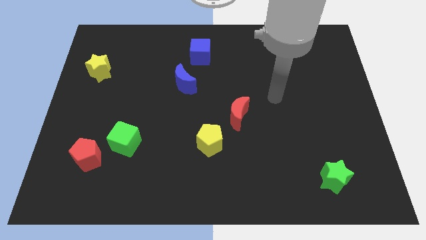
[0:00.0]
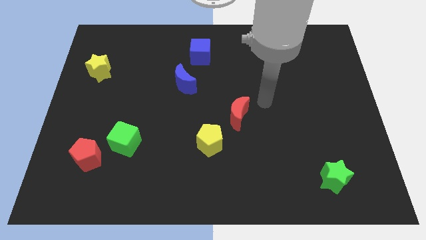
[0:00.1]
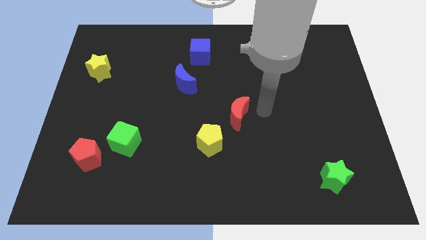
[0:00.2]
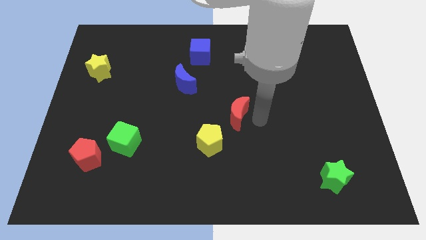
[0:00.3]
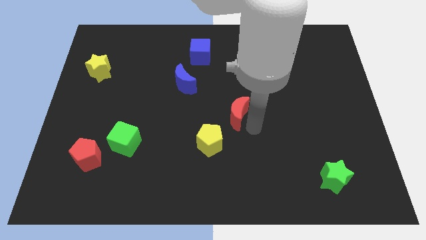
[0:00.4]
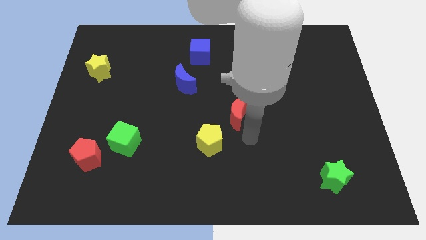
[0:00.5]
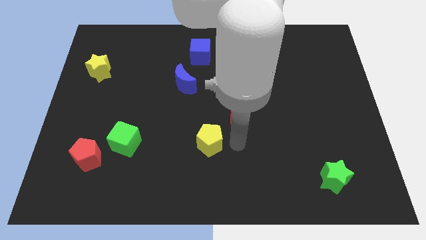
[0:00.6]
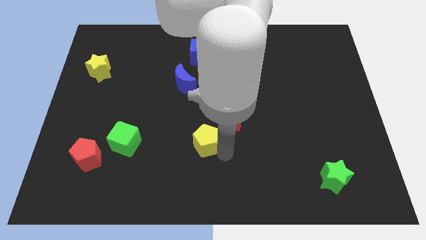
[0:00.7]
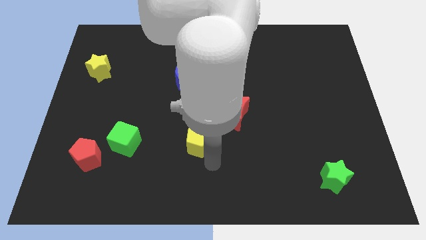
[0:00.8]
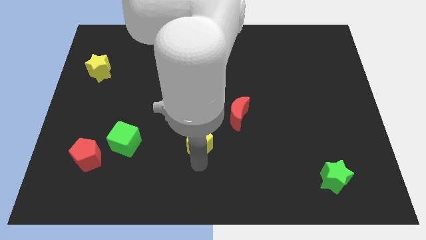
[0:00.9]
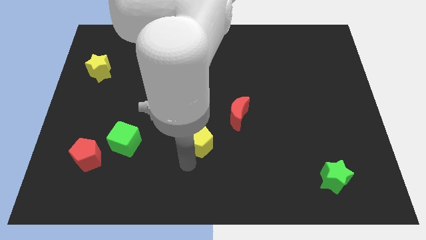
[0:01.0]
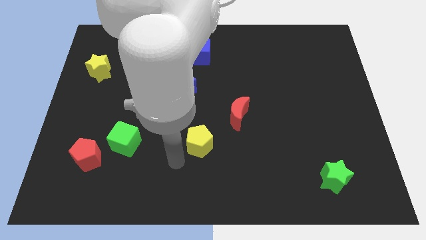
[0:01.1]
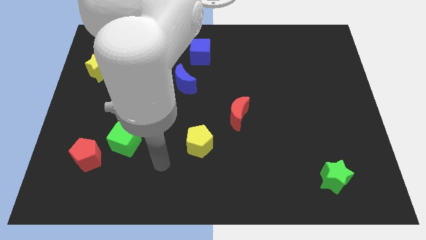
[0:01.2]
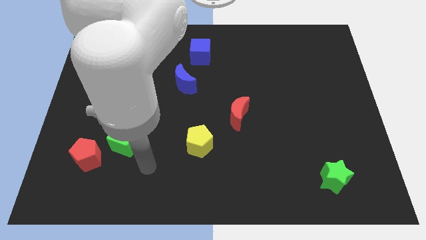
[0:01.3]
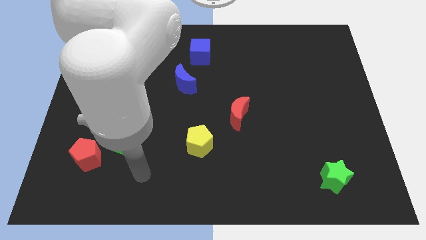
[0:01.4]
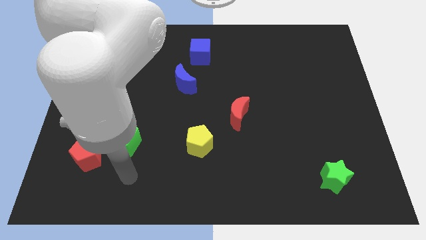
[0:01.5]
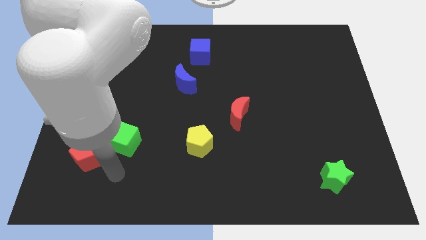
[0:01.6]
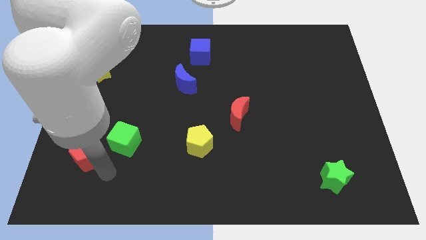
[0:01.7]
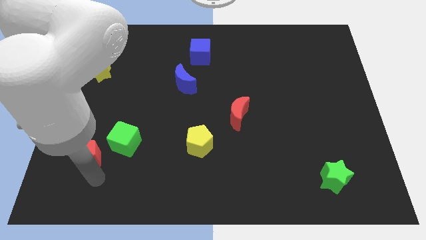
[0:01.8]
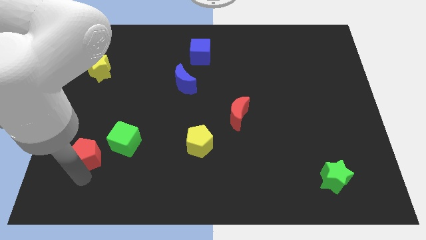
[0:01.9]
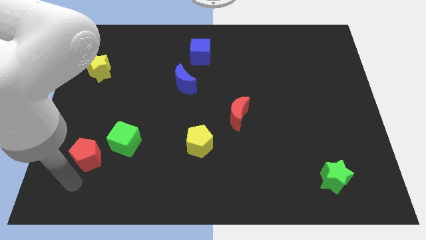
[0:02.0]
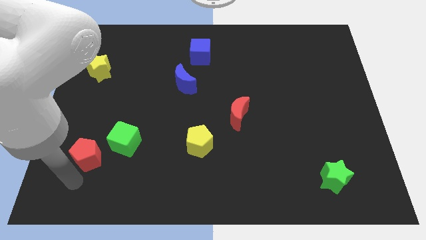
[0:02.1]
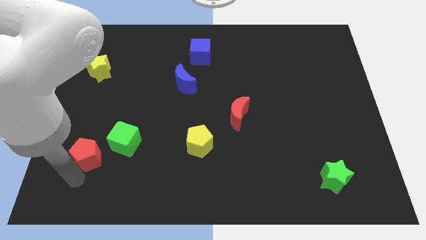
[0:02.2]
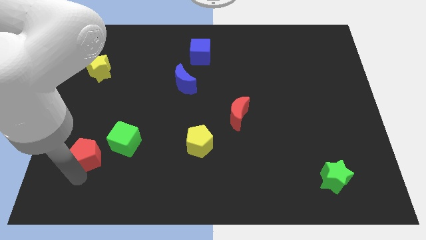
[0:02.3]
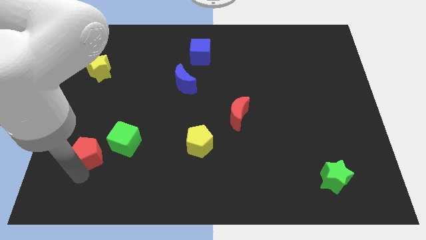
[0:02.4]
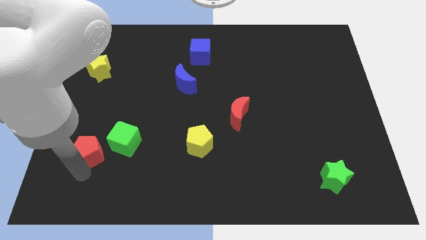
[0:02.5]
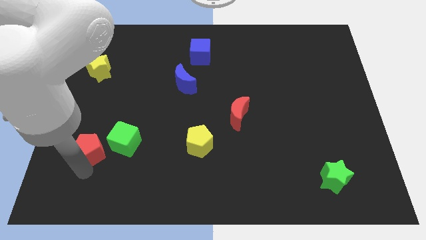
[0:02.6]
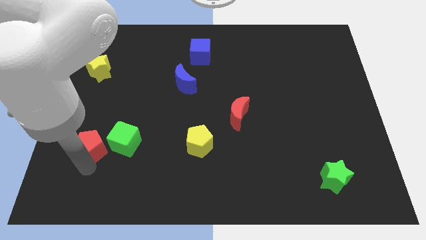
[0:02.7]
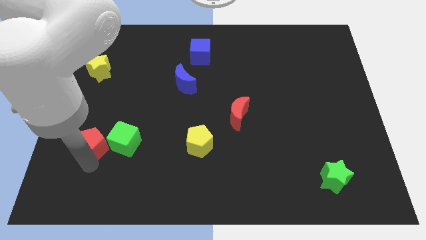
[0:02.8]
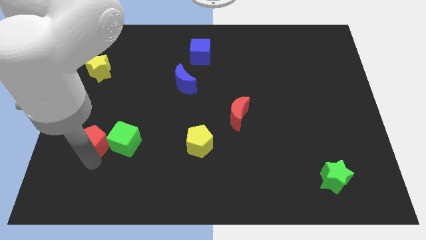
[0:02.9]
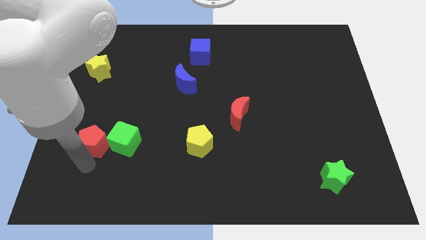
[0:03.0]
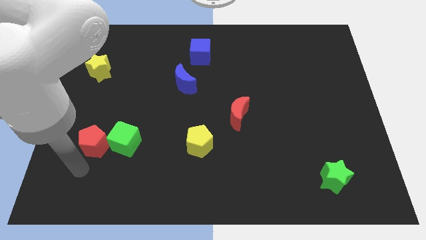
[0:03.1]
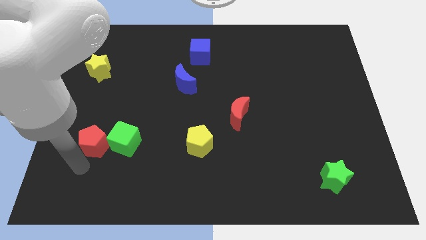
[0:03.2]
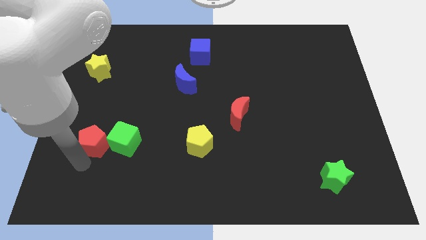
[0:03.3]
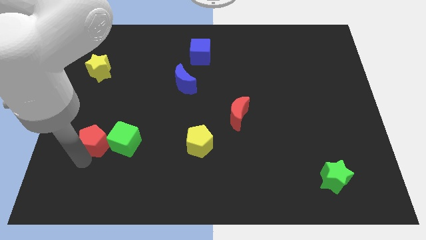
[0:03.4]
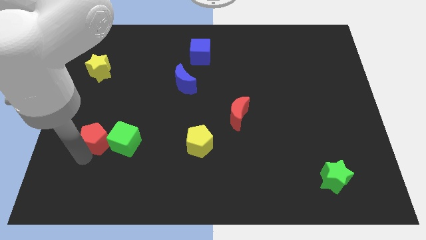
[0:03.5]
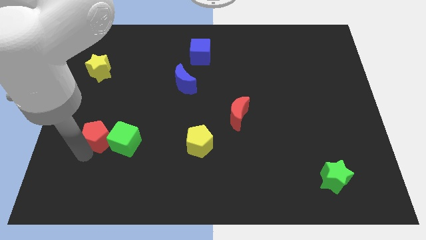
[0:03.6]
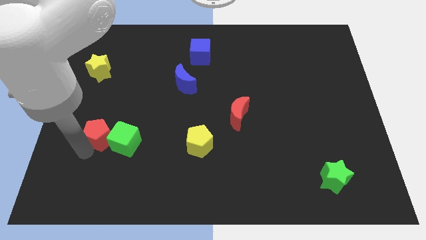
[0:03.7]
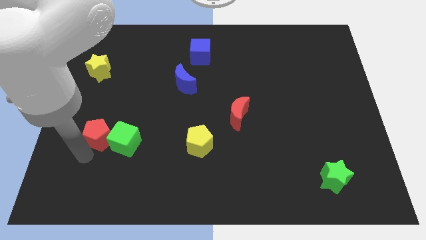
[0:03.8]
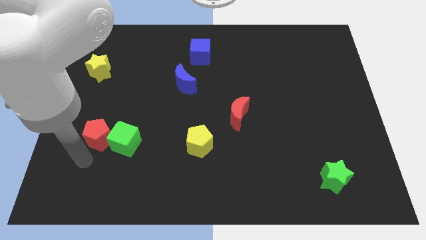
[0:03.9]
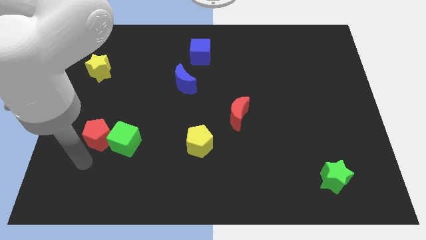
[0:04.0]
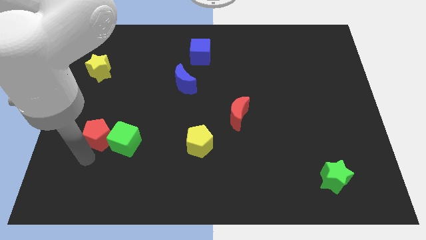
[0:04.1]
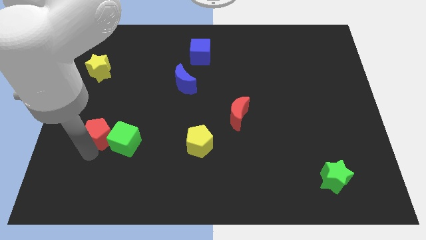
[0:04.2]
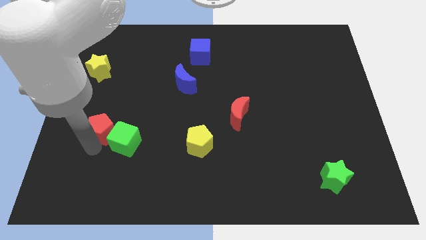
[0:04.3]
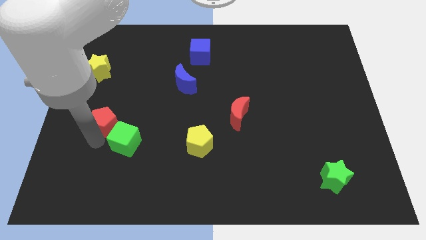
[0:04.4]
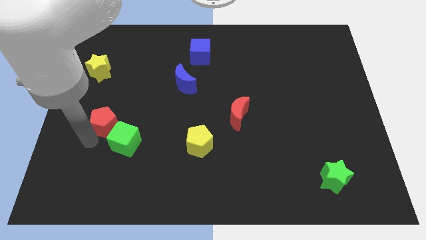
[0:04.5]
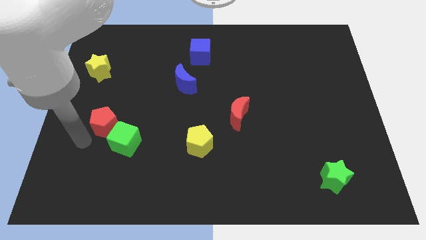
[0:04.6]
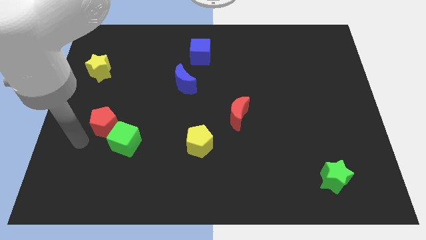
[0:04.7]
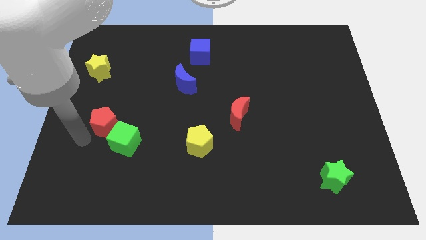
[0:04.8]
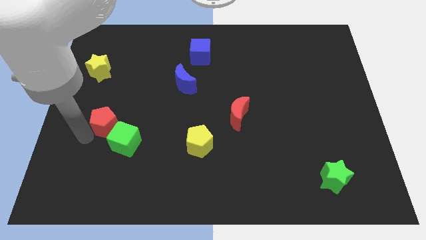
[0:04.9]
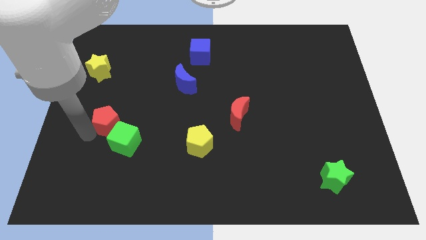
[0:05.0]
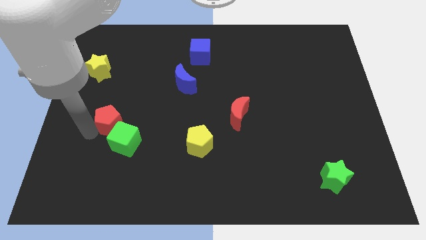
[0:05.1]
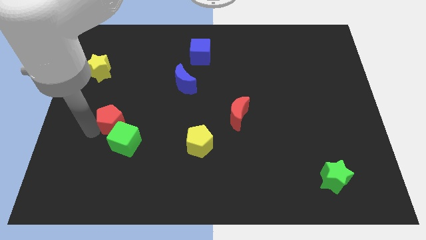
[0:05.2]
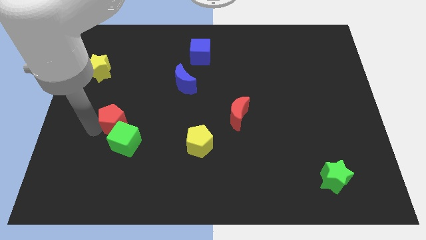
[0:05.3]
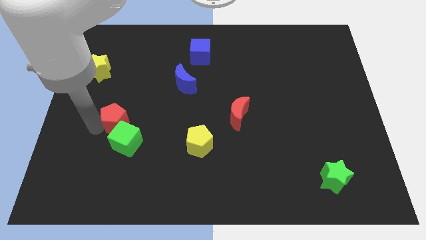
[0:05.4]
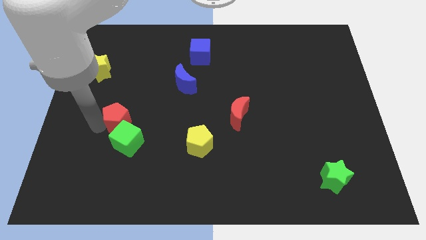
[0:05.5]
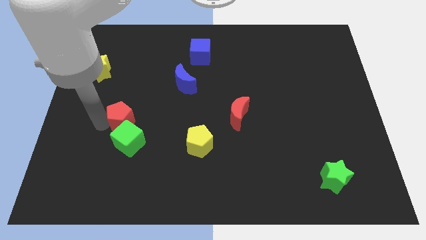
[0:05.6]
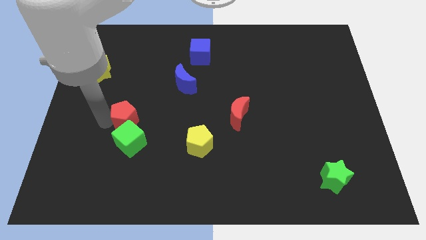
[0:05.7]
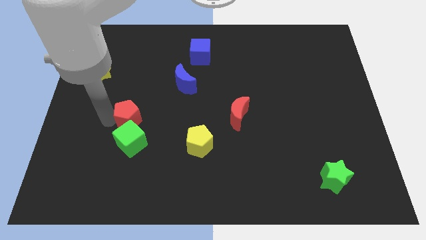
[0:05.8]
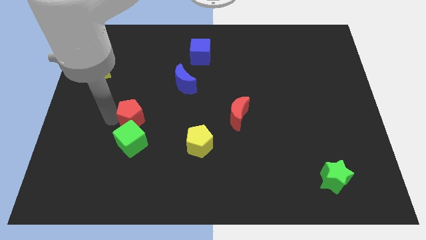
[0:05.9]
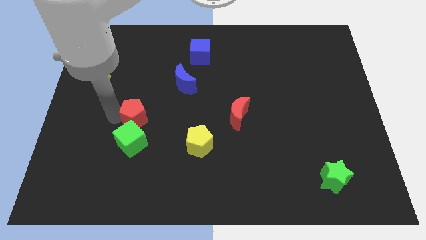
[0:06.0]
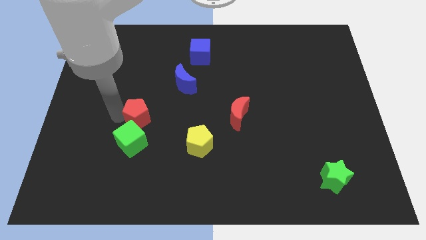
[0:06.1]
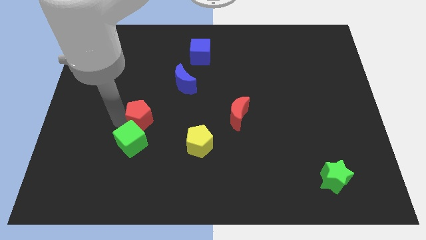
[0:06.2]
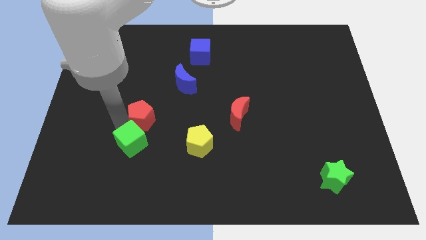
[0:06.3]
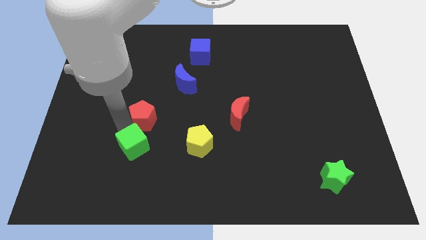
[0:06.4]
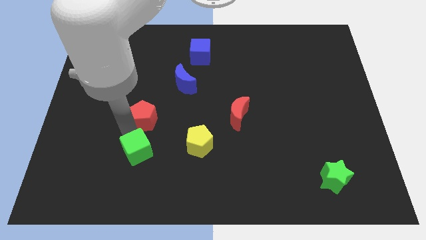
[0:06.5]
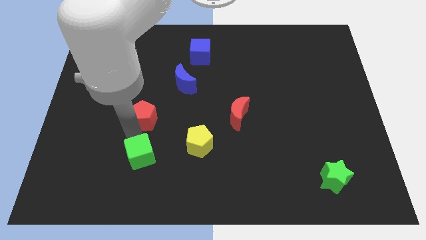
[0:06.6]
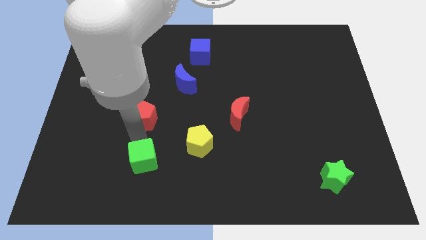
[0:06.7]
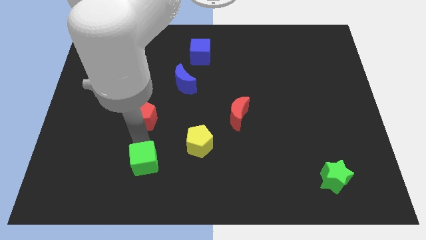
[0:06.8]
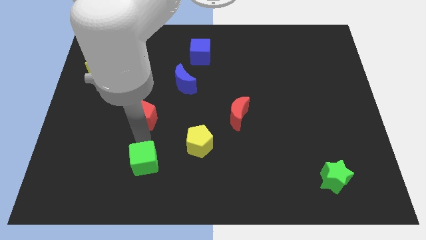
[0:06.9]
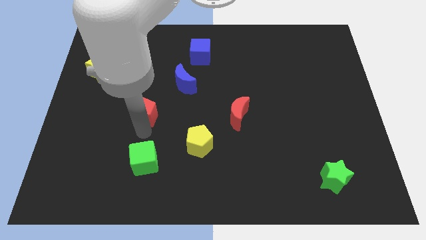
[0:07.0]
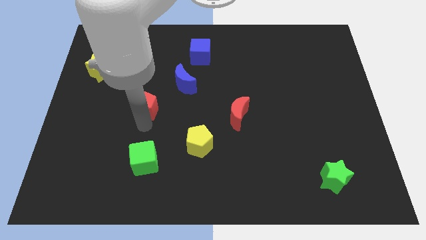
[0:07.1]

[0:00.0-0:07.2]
slide the red pentagon to the bottom left side of the blue moon
